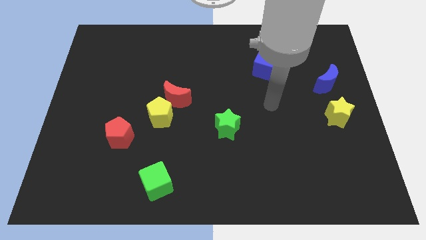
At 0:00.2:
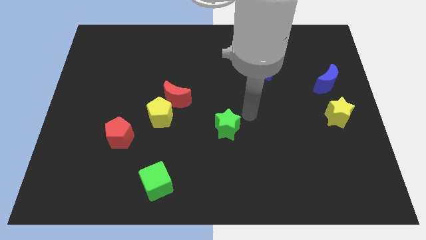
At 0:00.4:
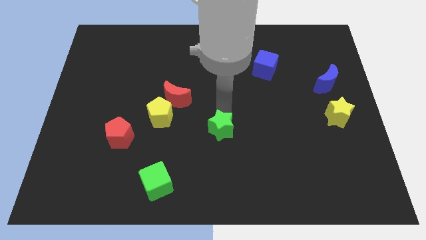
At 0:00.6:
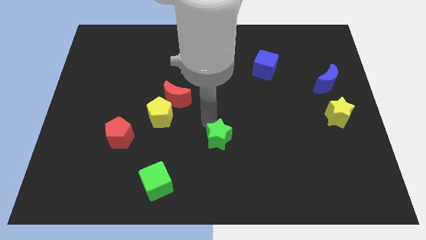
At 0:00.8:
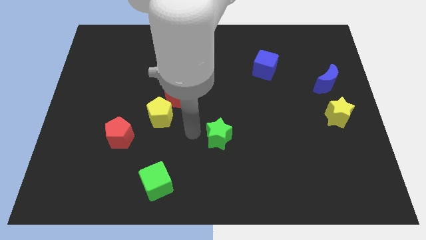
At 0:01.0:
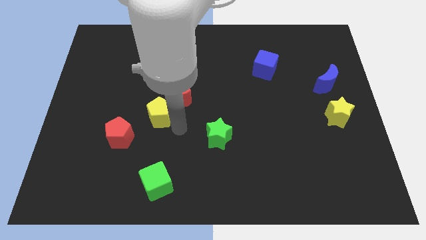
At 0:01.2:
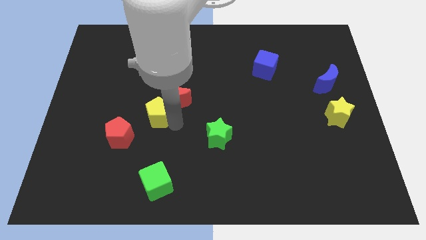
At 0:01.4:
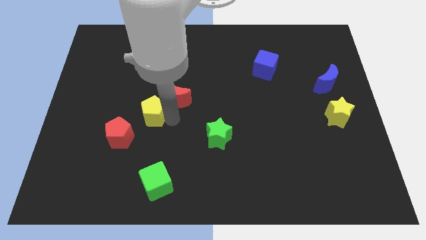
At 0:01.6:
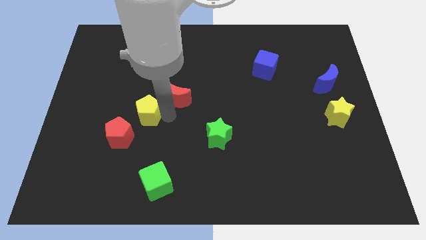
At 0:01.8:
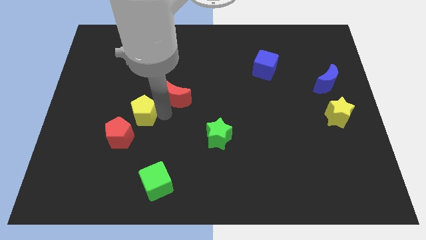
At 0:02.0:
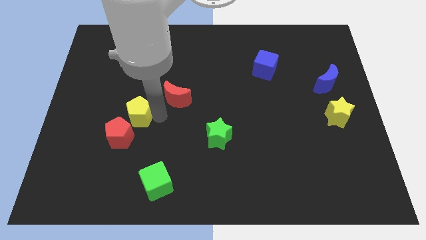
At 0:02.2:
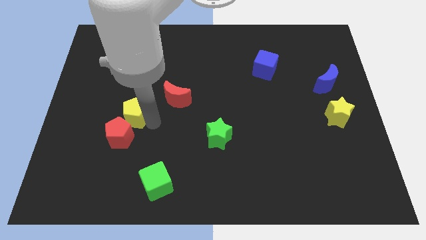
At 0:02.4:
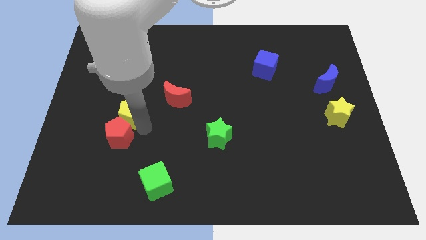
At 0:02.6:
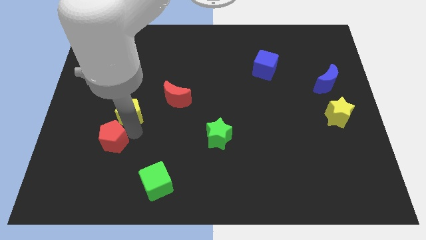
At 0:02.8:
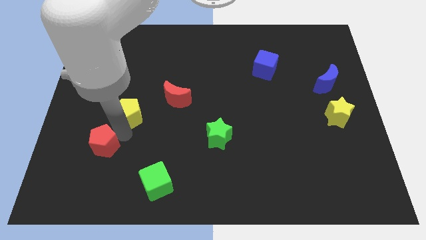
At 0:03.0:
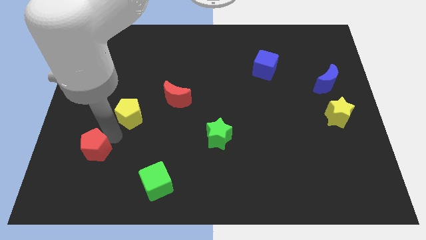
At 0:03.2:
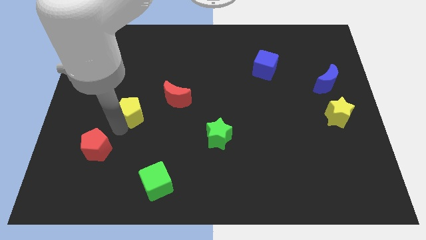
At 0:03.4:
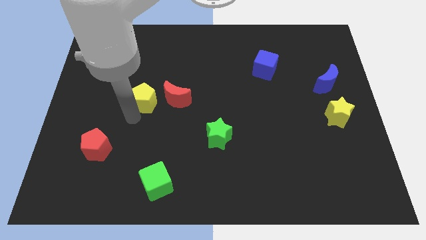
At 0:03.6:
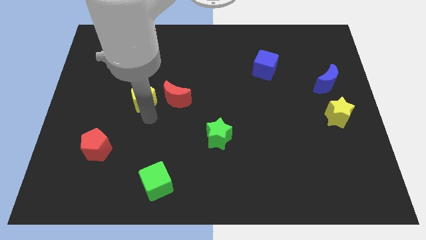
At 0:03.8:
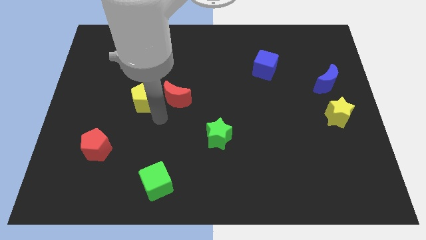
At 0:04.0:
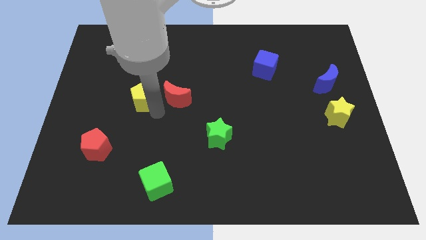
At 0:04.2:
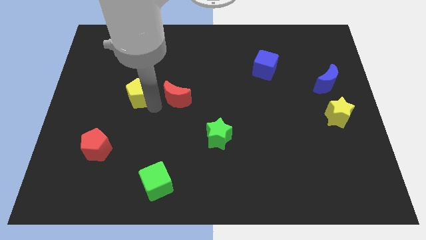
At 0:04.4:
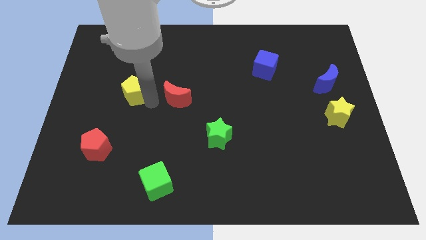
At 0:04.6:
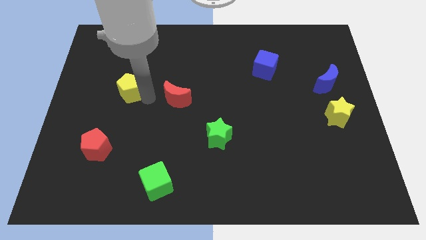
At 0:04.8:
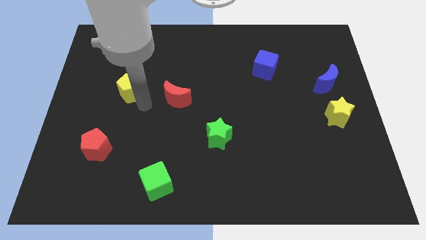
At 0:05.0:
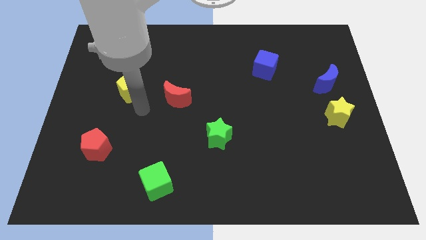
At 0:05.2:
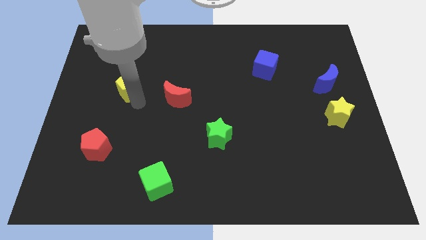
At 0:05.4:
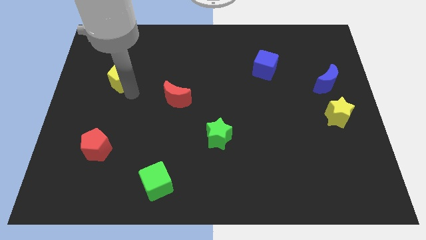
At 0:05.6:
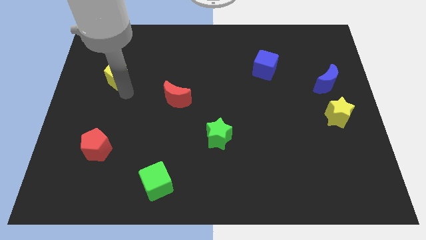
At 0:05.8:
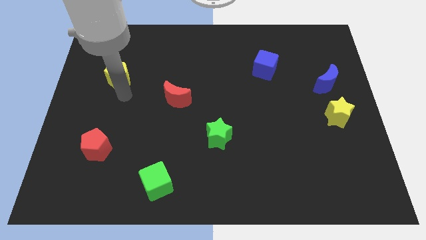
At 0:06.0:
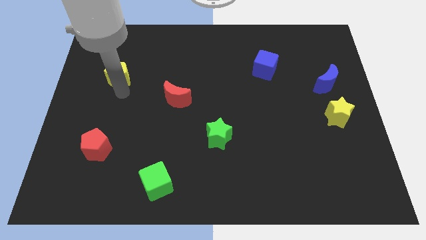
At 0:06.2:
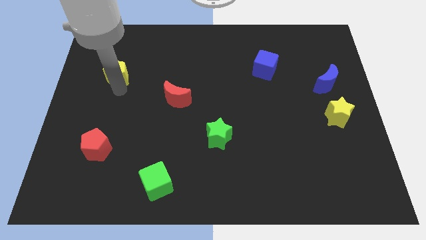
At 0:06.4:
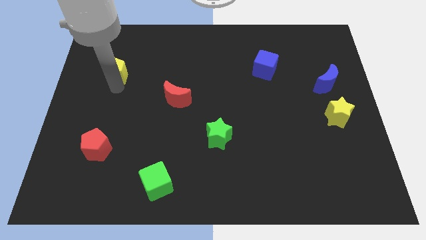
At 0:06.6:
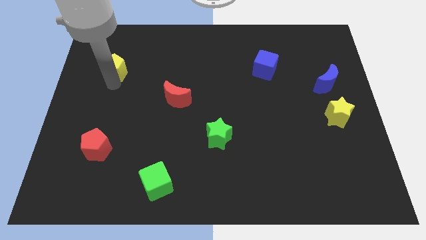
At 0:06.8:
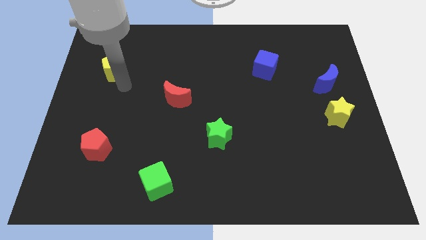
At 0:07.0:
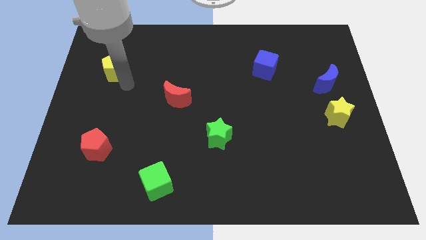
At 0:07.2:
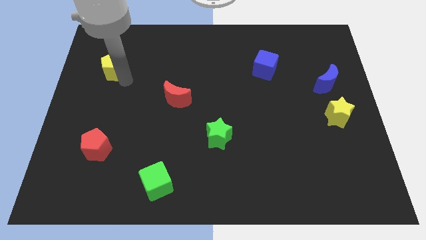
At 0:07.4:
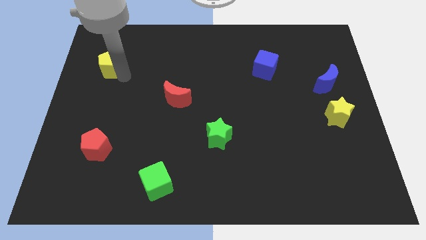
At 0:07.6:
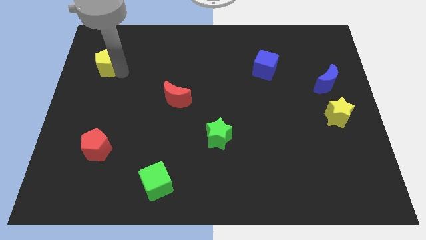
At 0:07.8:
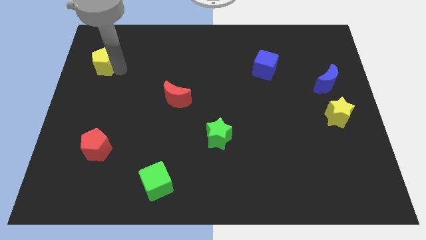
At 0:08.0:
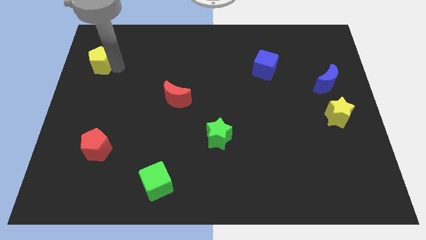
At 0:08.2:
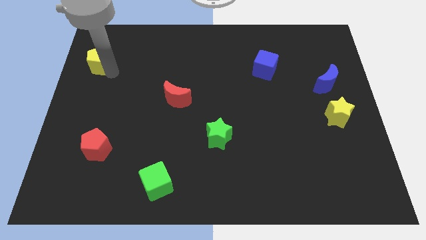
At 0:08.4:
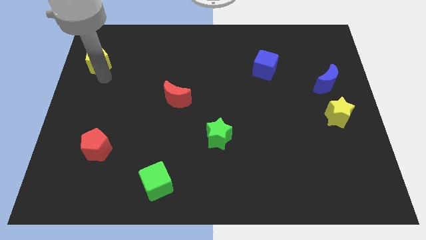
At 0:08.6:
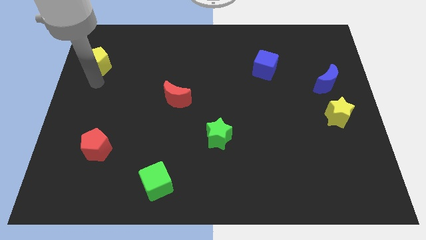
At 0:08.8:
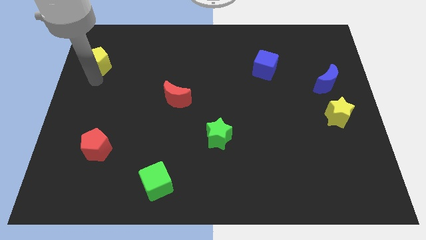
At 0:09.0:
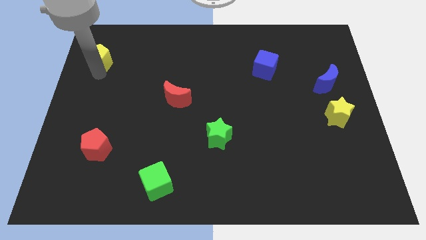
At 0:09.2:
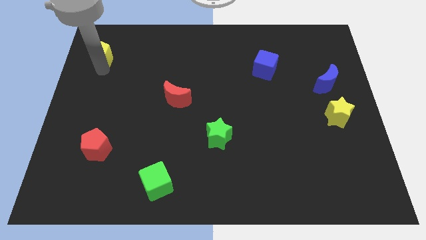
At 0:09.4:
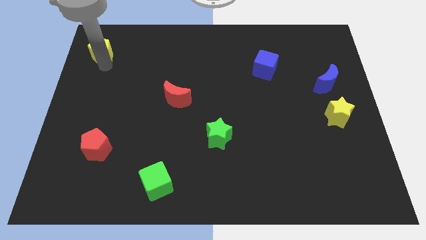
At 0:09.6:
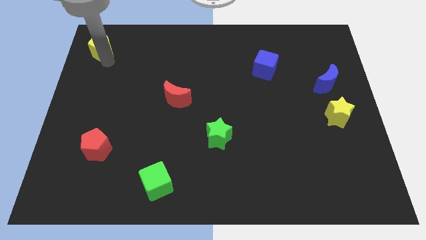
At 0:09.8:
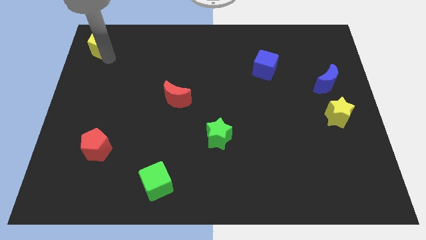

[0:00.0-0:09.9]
slide the yellow pentagon to the upper left corner

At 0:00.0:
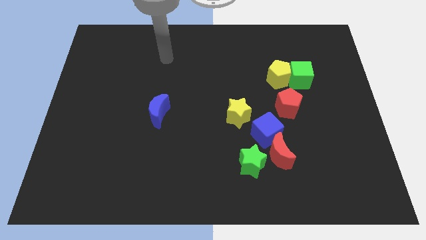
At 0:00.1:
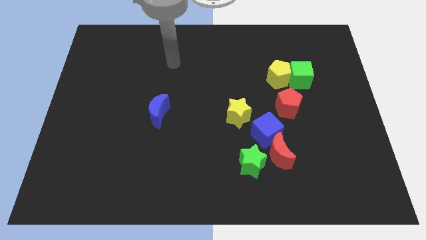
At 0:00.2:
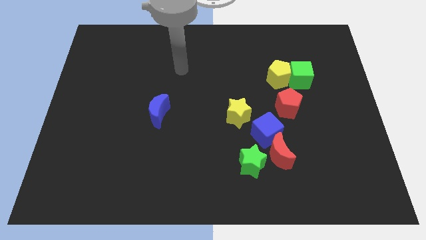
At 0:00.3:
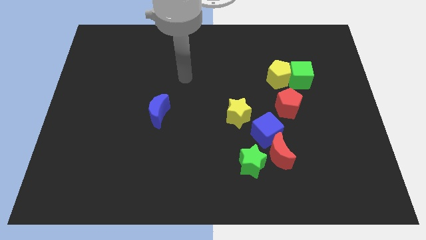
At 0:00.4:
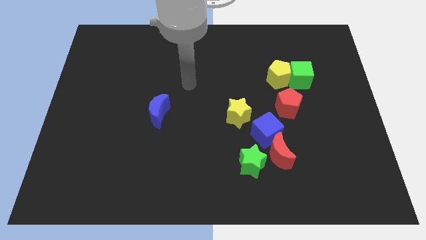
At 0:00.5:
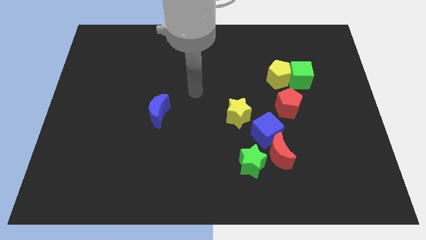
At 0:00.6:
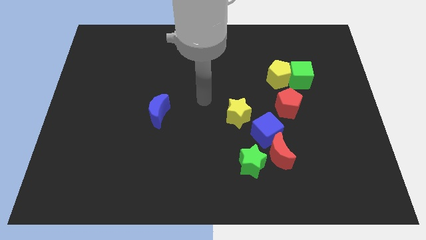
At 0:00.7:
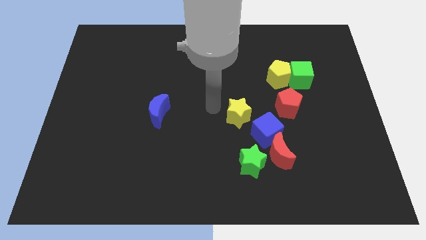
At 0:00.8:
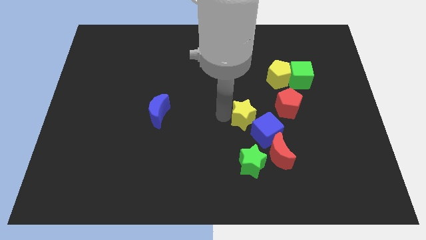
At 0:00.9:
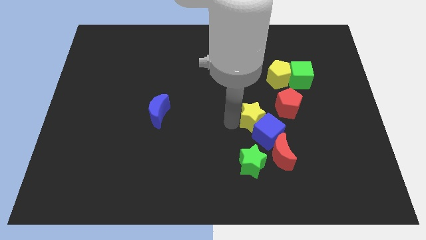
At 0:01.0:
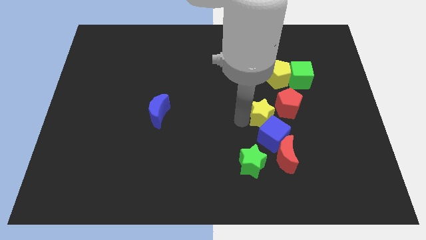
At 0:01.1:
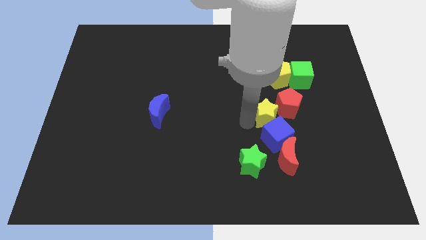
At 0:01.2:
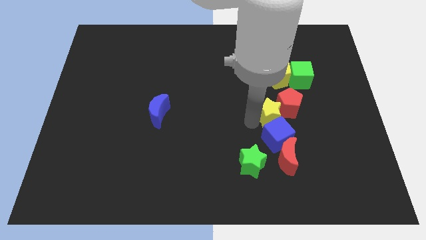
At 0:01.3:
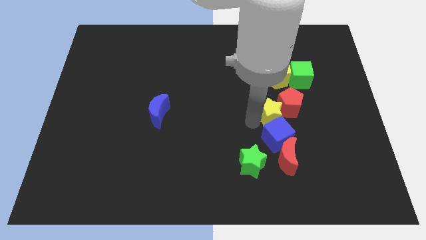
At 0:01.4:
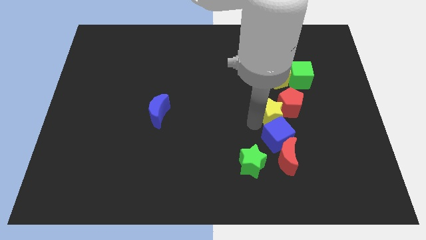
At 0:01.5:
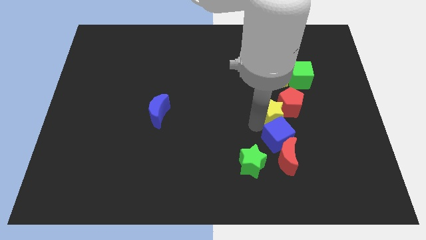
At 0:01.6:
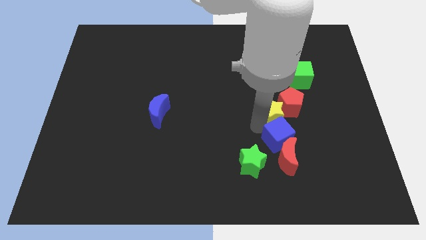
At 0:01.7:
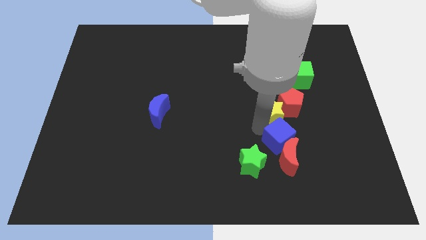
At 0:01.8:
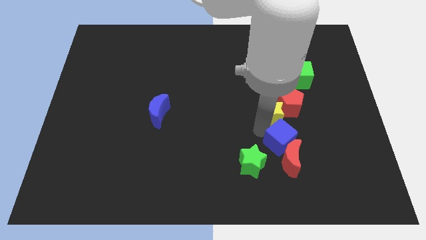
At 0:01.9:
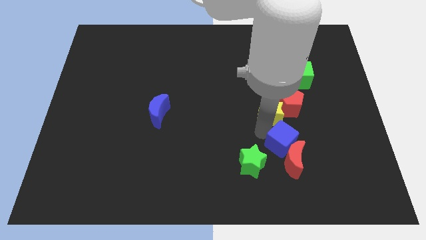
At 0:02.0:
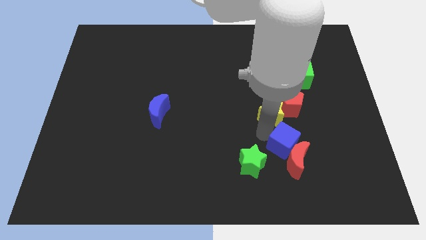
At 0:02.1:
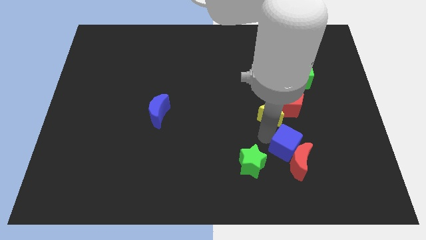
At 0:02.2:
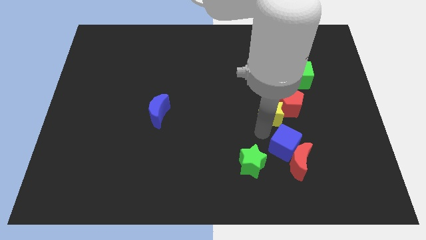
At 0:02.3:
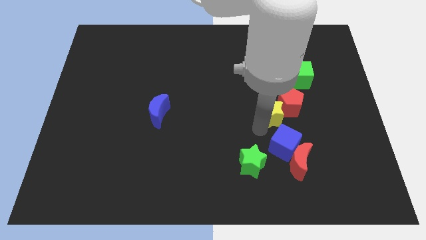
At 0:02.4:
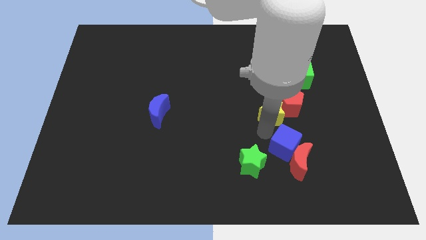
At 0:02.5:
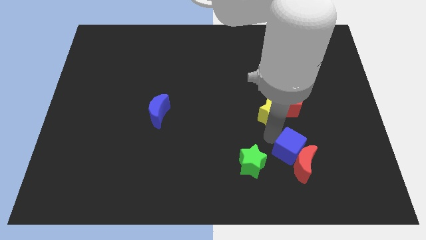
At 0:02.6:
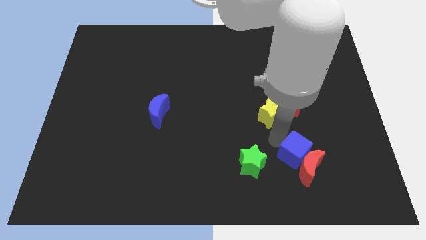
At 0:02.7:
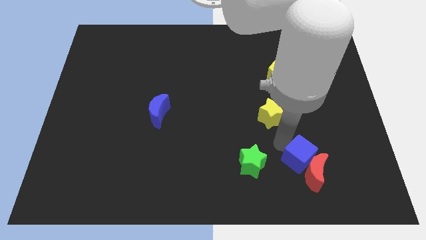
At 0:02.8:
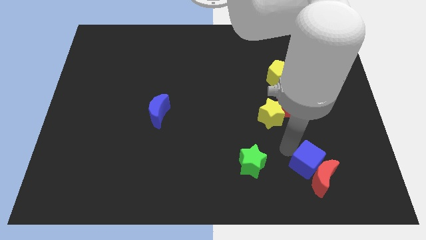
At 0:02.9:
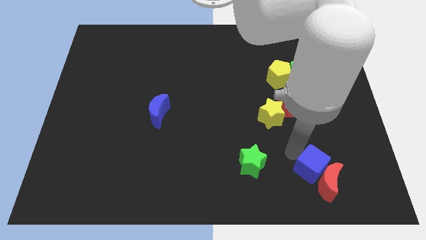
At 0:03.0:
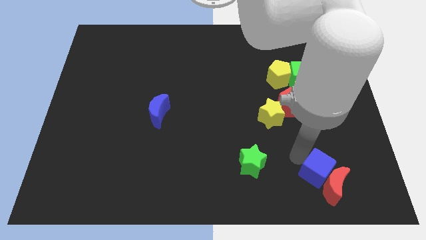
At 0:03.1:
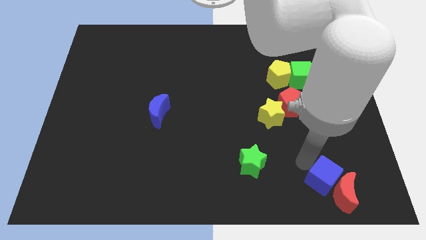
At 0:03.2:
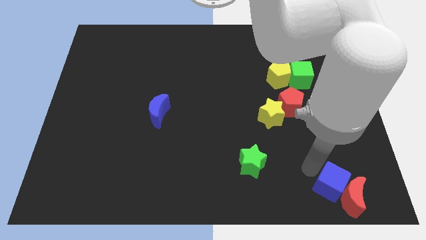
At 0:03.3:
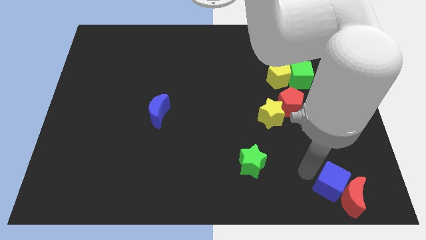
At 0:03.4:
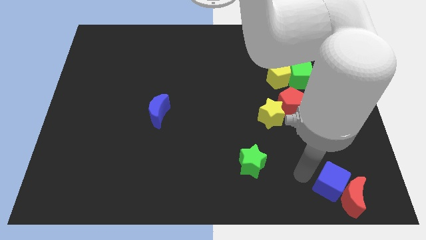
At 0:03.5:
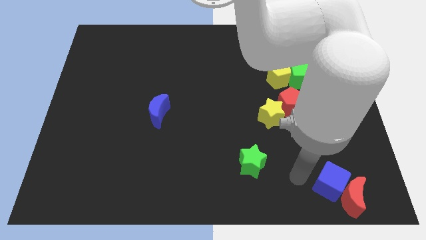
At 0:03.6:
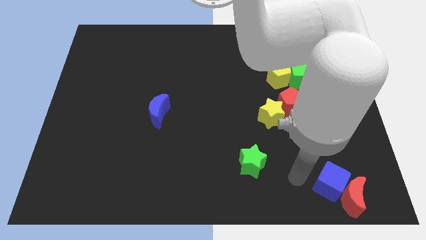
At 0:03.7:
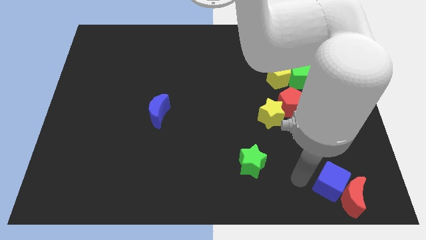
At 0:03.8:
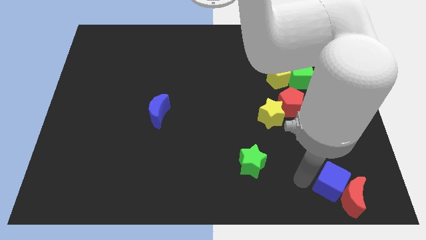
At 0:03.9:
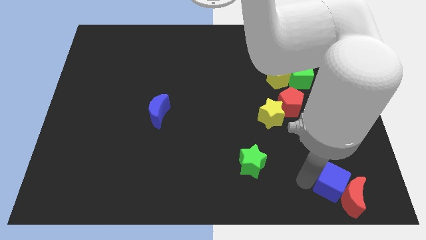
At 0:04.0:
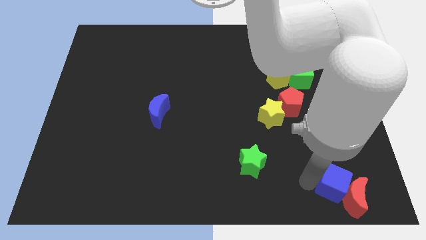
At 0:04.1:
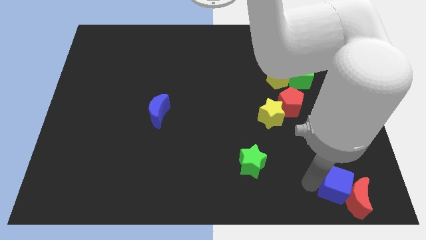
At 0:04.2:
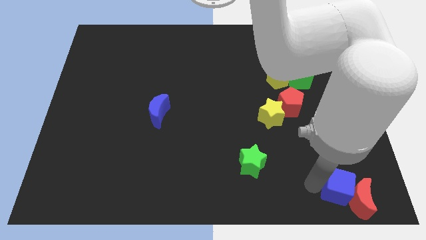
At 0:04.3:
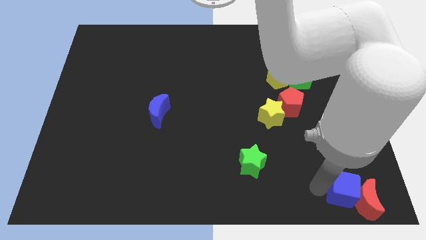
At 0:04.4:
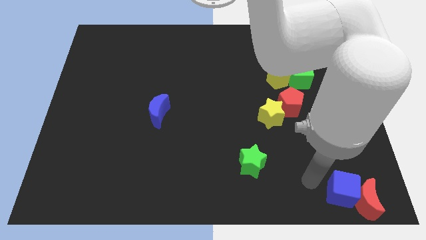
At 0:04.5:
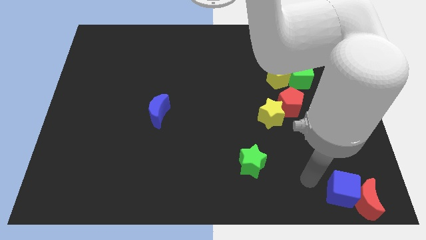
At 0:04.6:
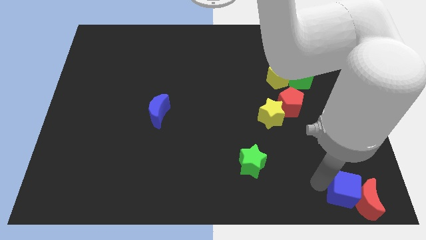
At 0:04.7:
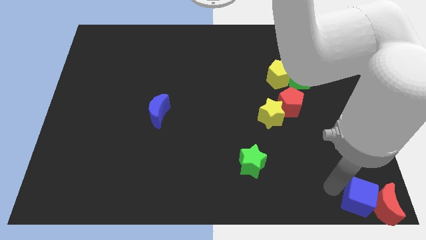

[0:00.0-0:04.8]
move the blue cube to the bottom right
